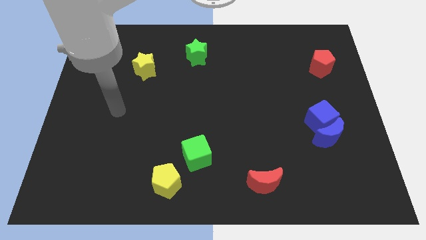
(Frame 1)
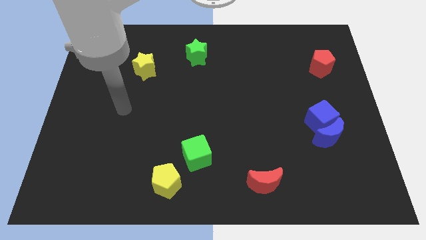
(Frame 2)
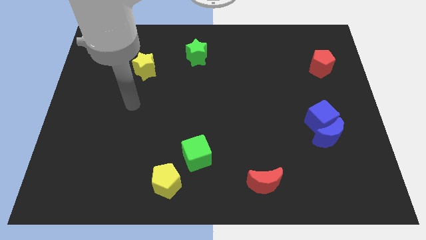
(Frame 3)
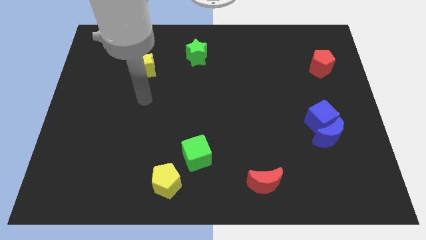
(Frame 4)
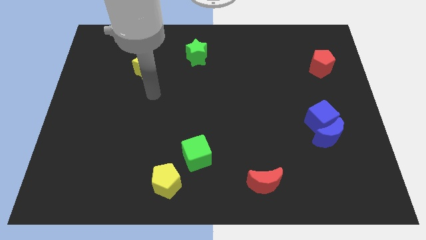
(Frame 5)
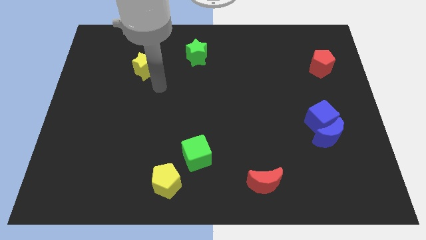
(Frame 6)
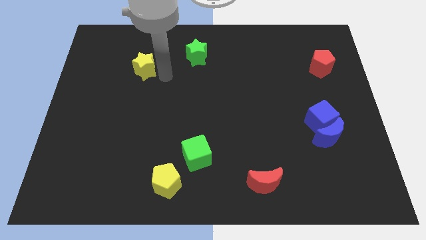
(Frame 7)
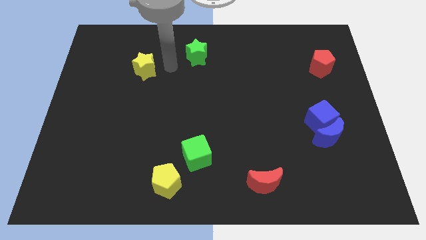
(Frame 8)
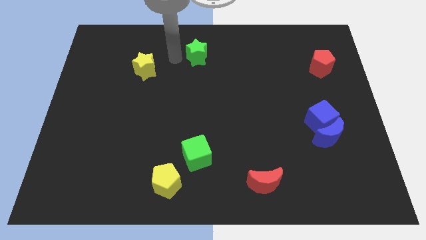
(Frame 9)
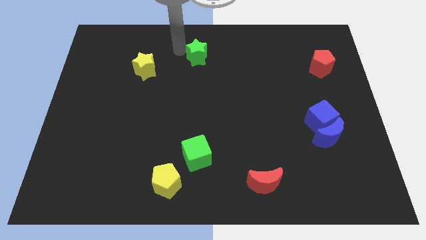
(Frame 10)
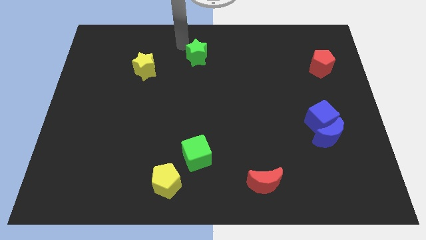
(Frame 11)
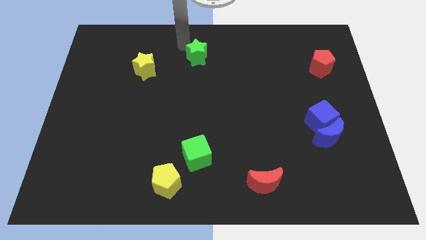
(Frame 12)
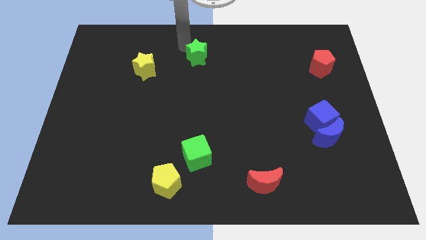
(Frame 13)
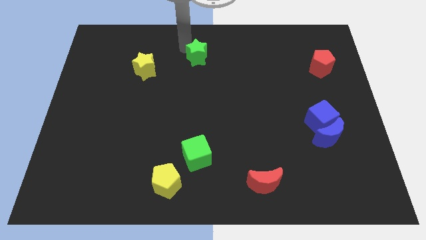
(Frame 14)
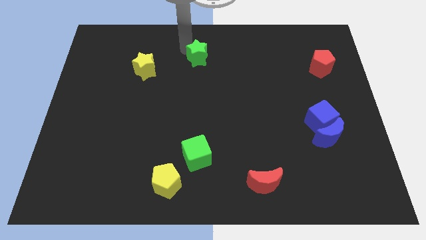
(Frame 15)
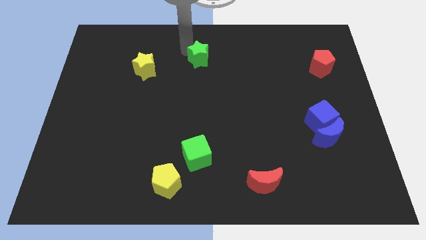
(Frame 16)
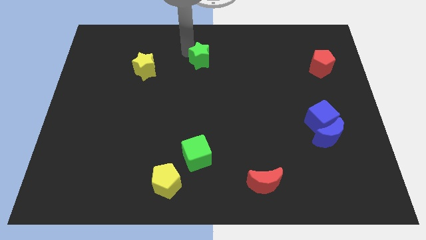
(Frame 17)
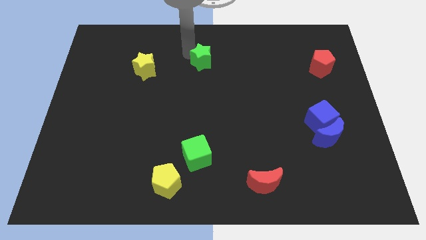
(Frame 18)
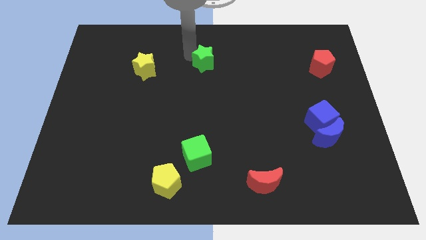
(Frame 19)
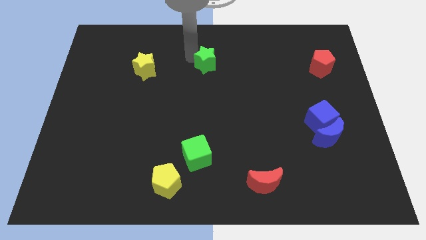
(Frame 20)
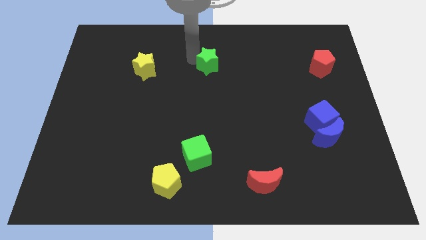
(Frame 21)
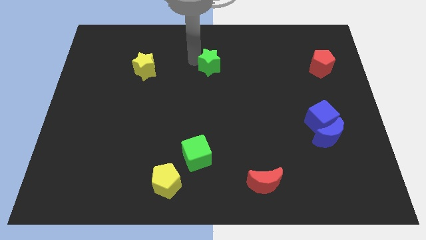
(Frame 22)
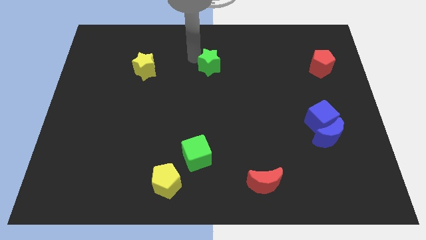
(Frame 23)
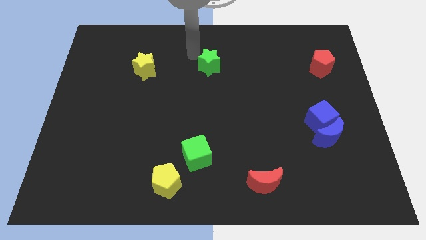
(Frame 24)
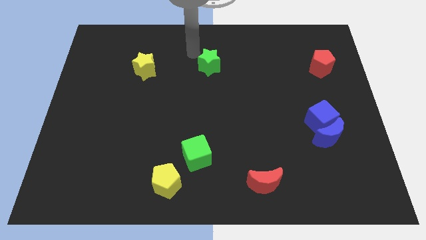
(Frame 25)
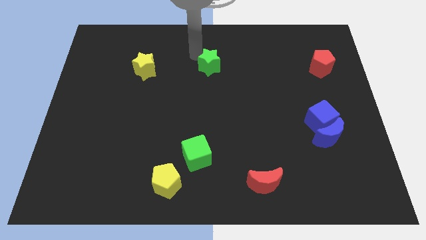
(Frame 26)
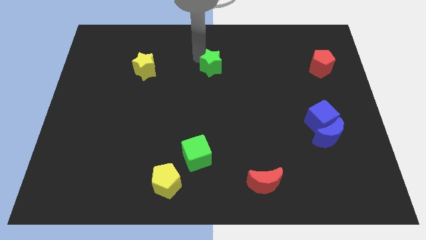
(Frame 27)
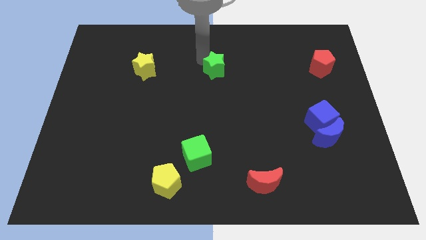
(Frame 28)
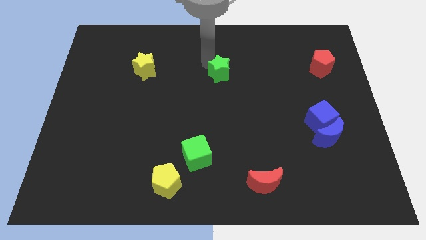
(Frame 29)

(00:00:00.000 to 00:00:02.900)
push the green star slightly downwards and then to the right

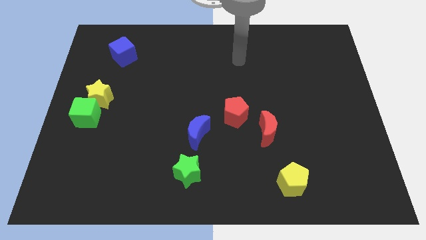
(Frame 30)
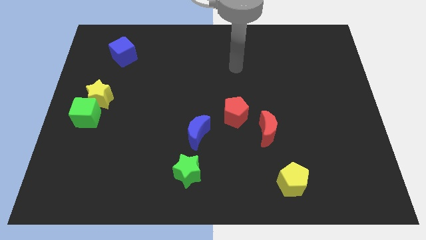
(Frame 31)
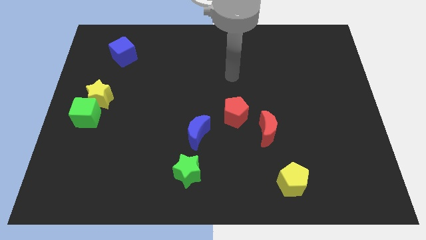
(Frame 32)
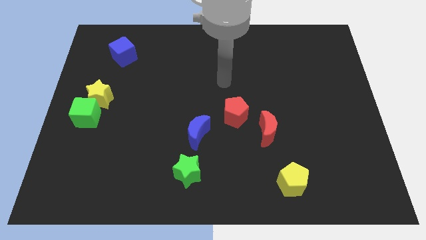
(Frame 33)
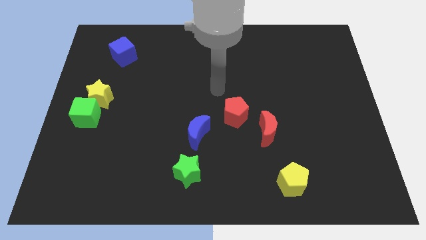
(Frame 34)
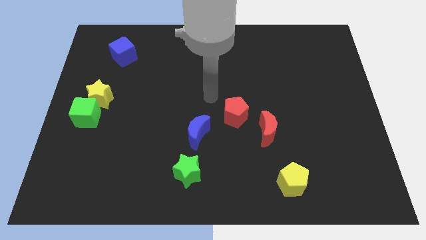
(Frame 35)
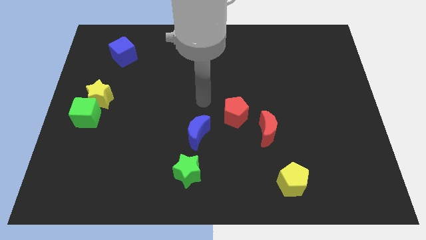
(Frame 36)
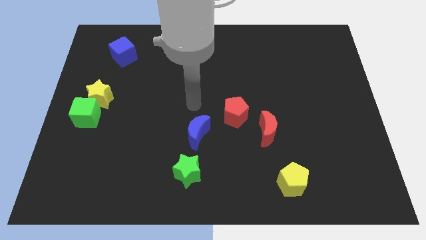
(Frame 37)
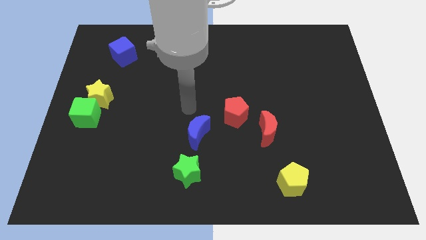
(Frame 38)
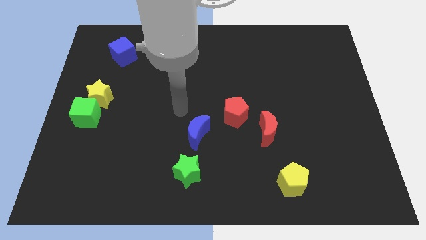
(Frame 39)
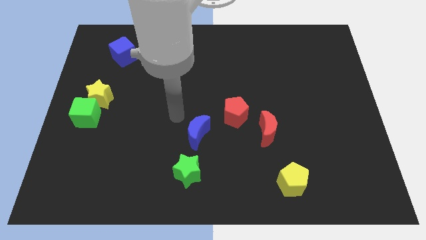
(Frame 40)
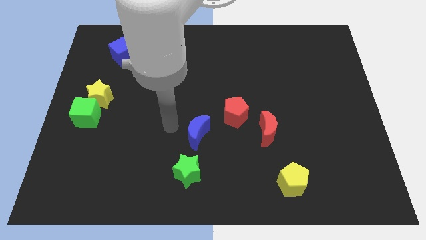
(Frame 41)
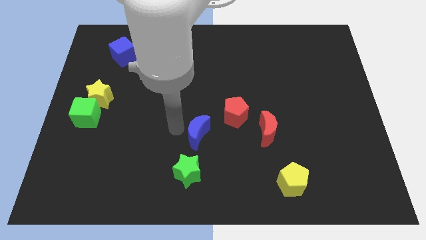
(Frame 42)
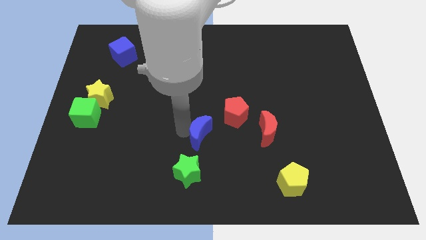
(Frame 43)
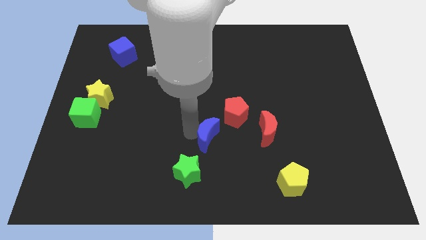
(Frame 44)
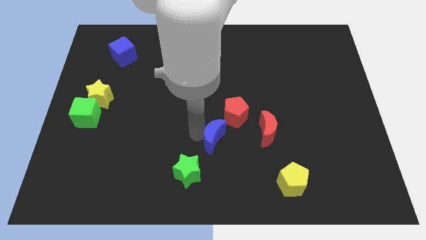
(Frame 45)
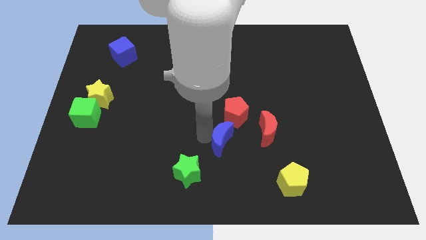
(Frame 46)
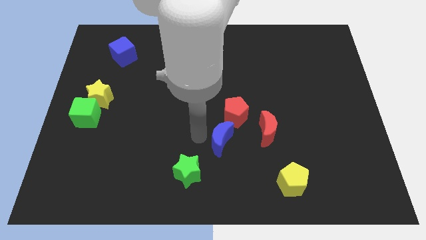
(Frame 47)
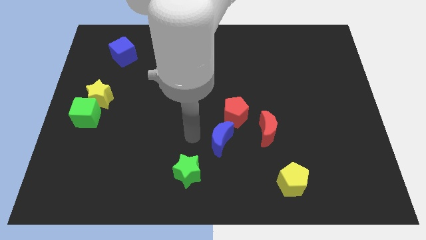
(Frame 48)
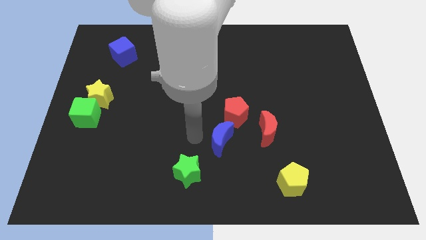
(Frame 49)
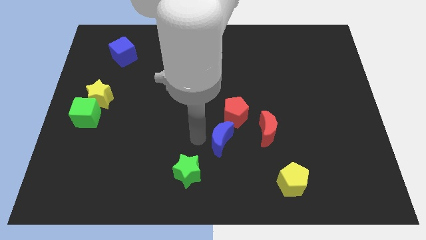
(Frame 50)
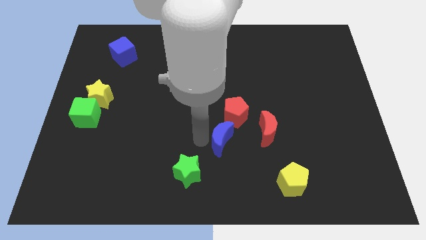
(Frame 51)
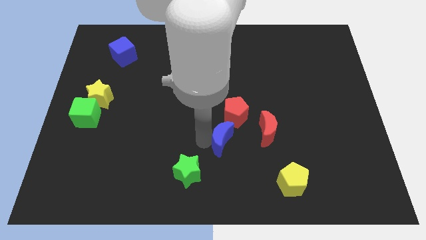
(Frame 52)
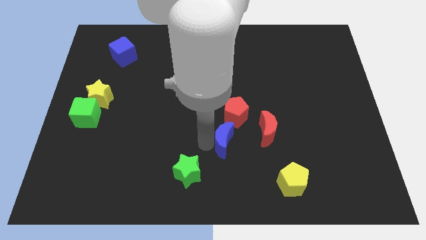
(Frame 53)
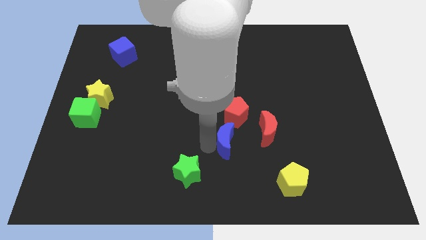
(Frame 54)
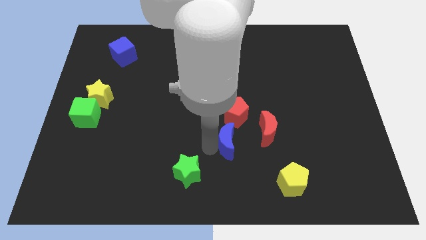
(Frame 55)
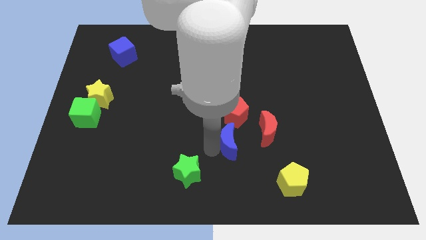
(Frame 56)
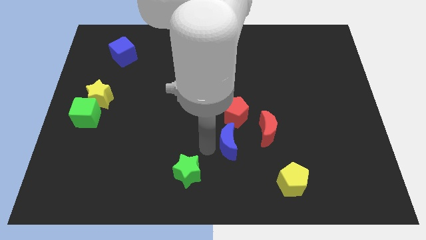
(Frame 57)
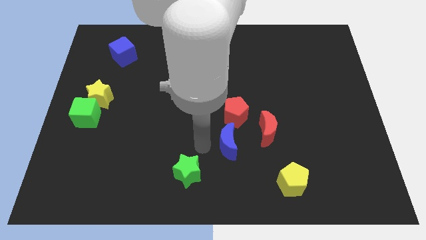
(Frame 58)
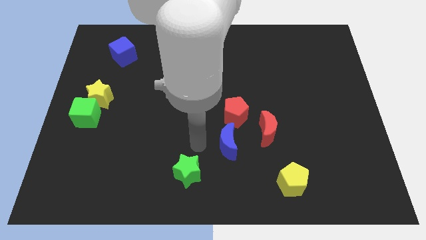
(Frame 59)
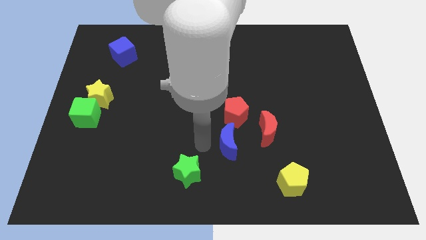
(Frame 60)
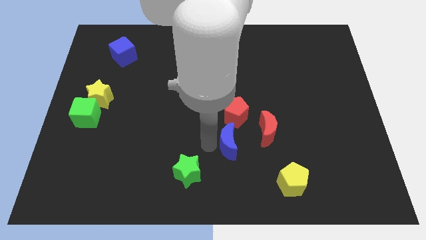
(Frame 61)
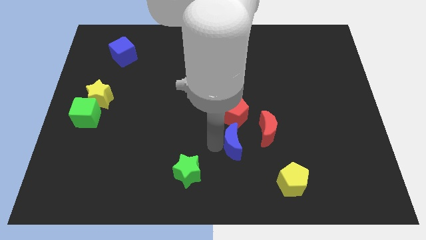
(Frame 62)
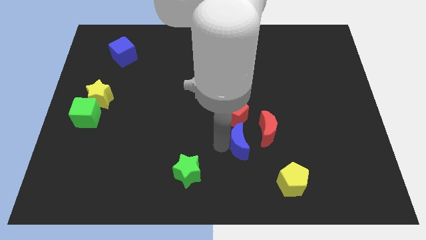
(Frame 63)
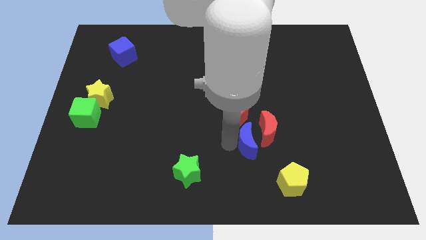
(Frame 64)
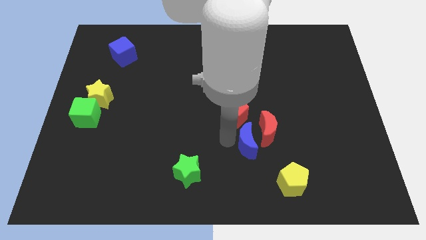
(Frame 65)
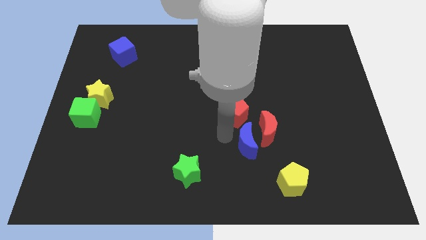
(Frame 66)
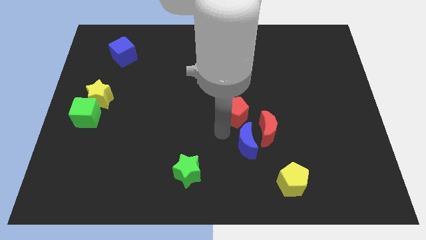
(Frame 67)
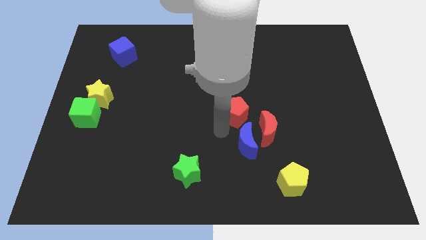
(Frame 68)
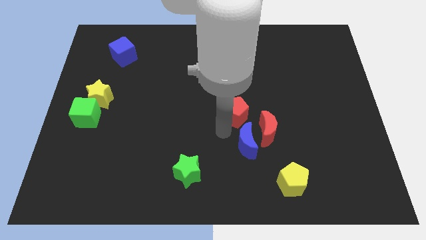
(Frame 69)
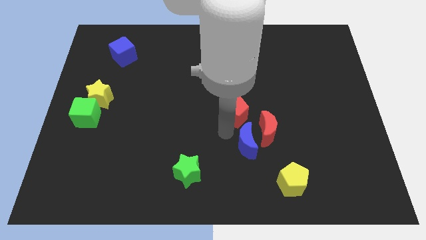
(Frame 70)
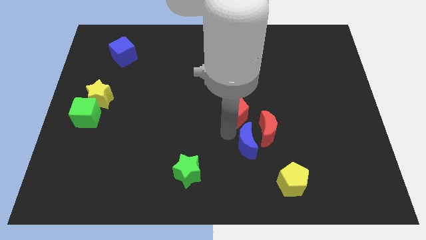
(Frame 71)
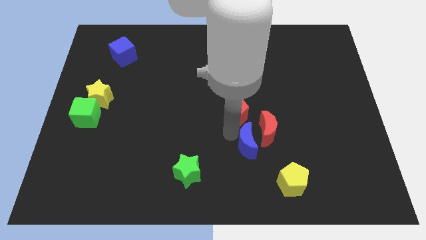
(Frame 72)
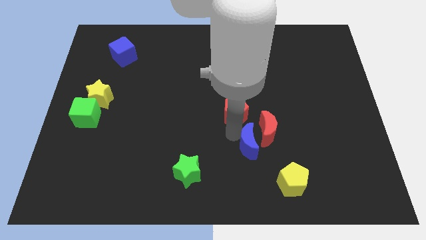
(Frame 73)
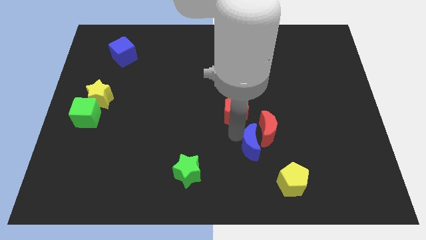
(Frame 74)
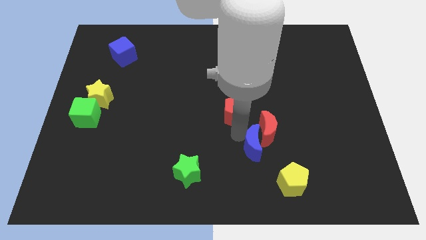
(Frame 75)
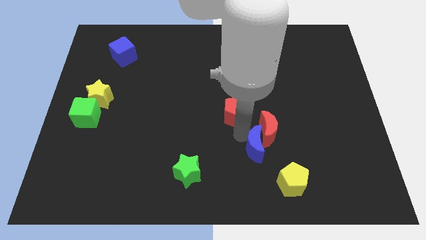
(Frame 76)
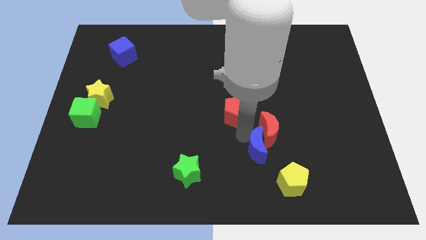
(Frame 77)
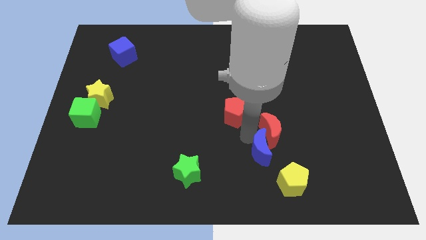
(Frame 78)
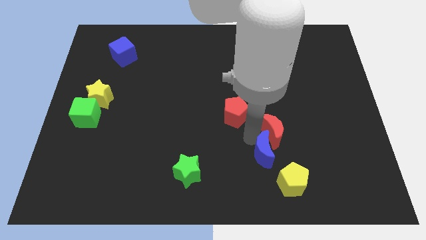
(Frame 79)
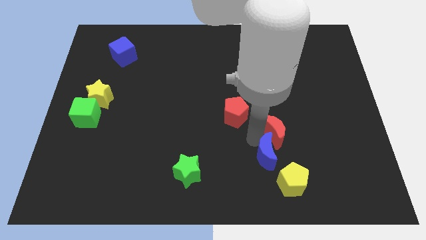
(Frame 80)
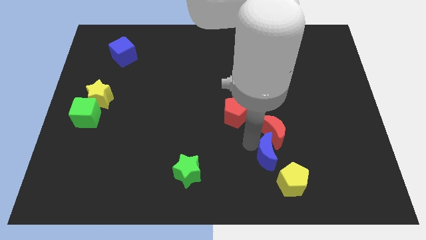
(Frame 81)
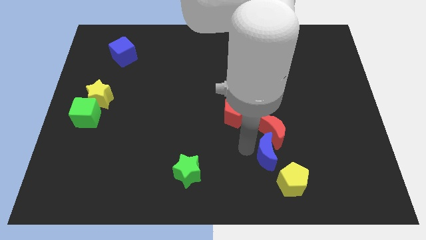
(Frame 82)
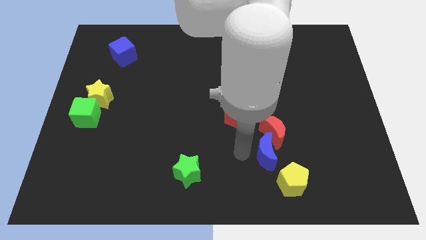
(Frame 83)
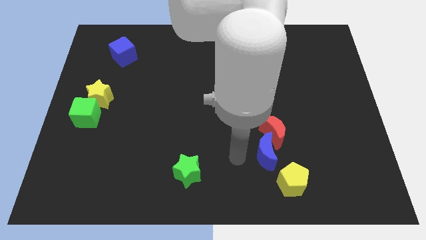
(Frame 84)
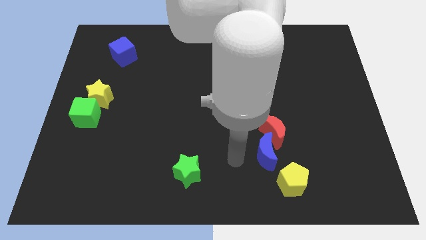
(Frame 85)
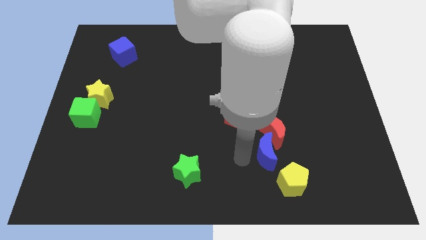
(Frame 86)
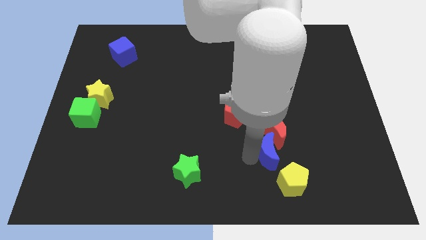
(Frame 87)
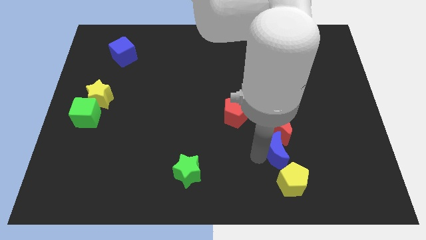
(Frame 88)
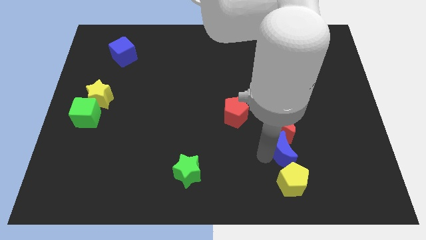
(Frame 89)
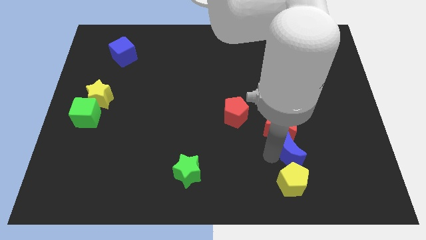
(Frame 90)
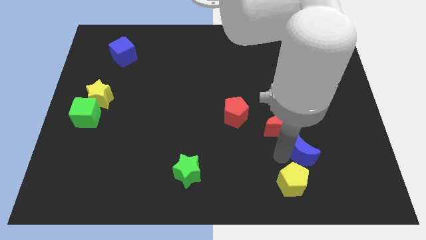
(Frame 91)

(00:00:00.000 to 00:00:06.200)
push the blue moon to the right
